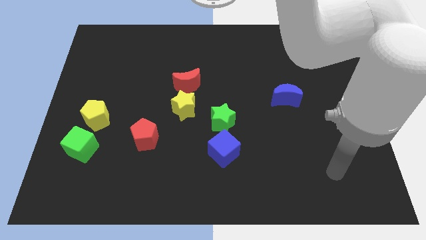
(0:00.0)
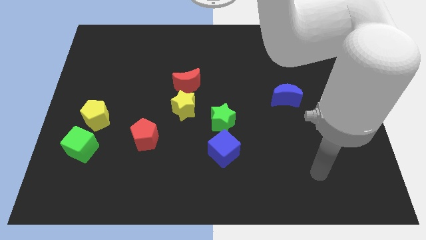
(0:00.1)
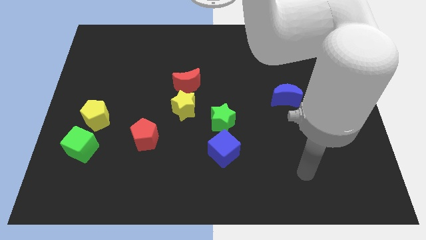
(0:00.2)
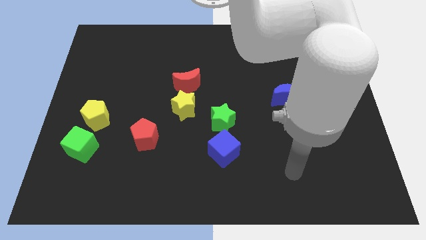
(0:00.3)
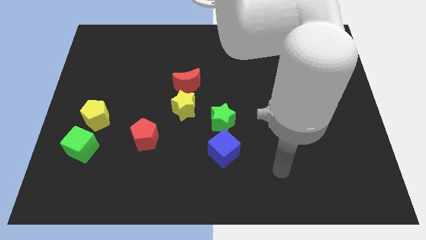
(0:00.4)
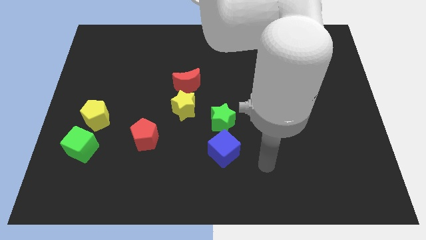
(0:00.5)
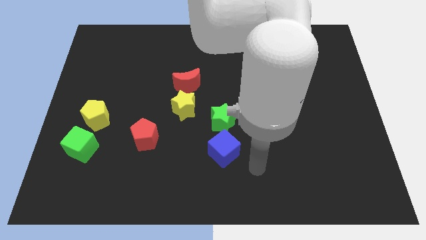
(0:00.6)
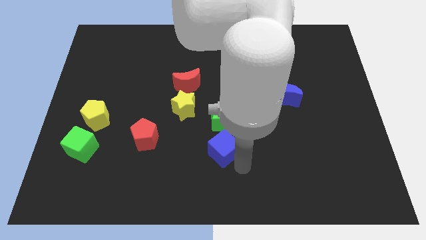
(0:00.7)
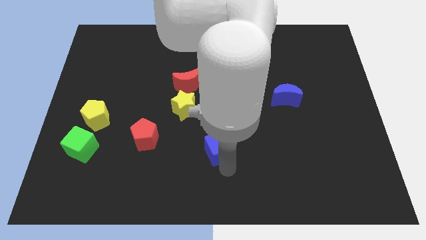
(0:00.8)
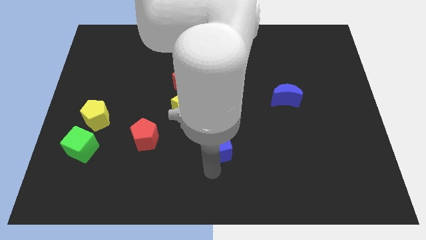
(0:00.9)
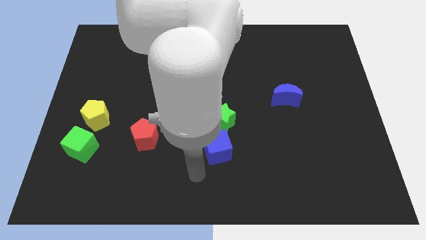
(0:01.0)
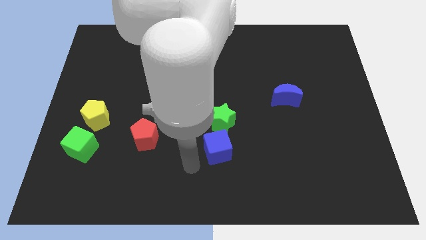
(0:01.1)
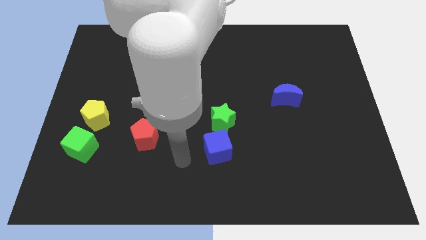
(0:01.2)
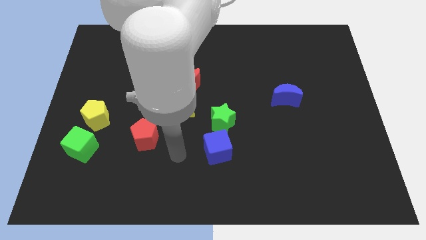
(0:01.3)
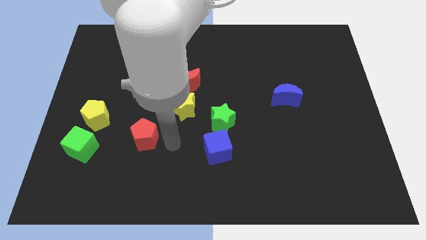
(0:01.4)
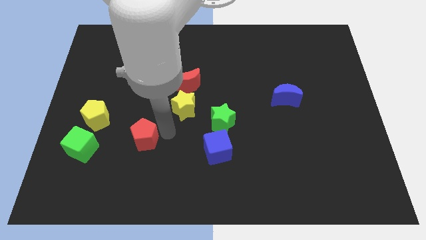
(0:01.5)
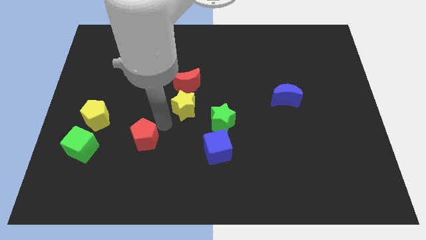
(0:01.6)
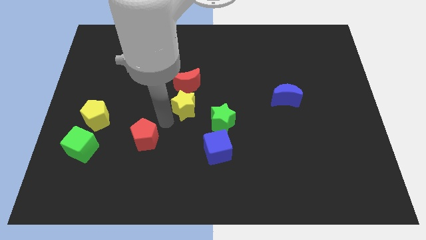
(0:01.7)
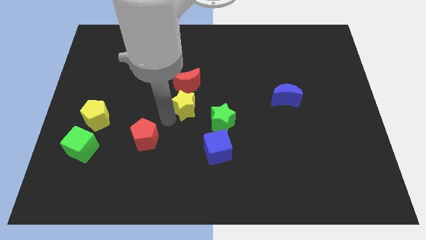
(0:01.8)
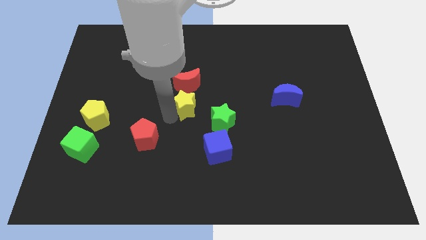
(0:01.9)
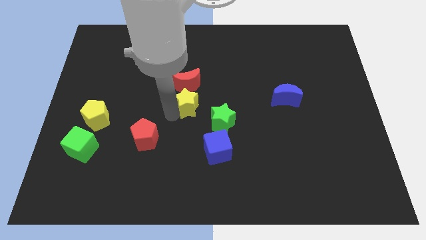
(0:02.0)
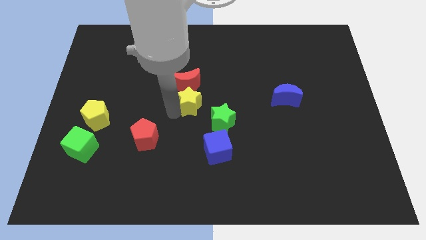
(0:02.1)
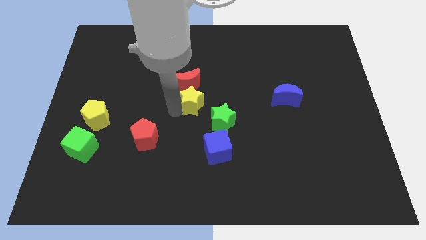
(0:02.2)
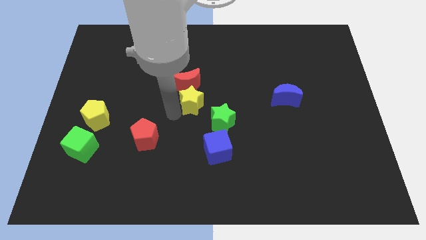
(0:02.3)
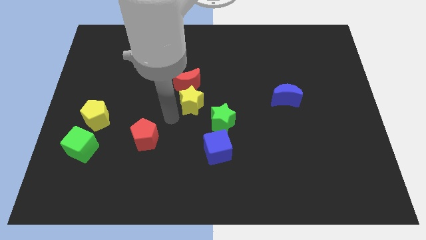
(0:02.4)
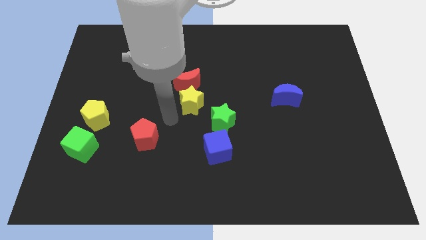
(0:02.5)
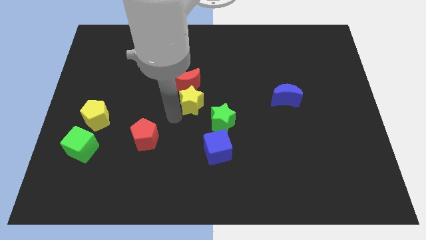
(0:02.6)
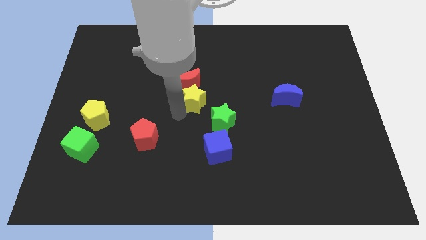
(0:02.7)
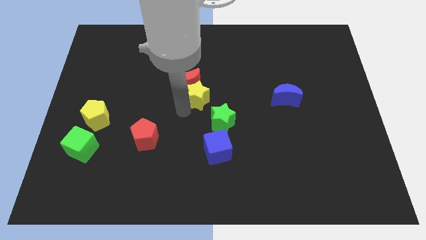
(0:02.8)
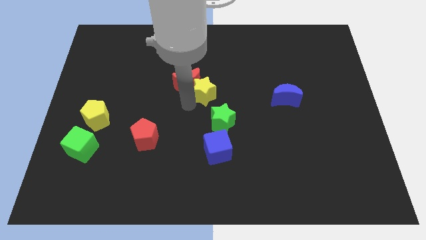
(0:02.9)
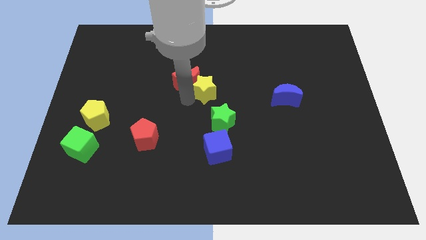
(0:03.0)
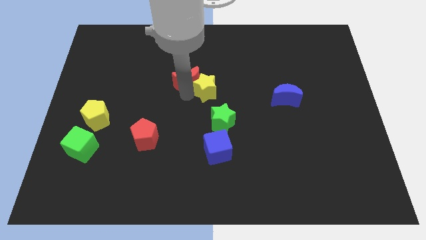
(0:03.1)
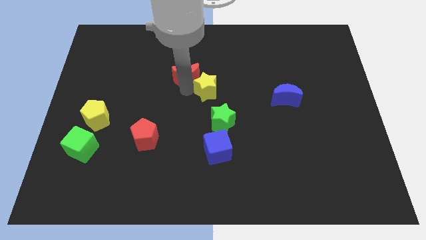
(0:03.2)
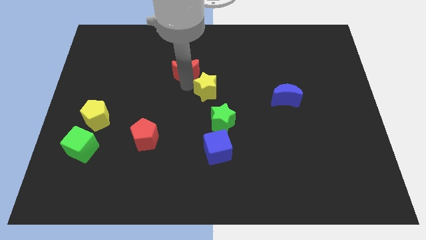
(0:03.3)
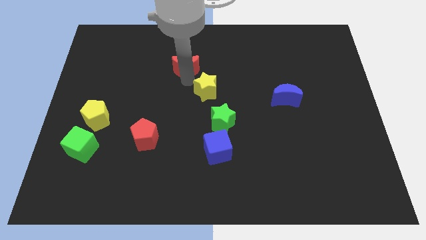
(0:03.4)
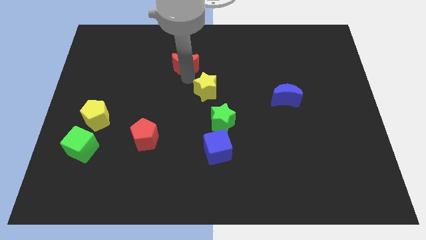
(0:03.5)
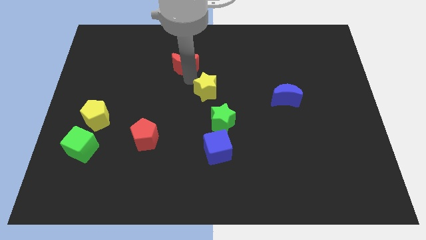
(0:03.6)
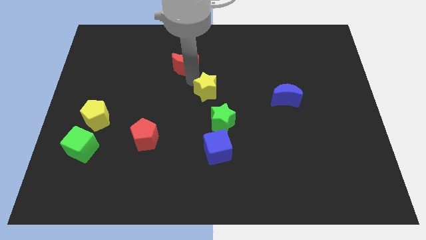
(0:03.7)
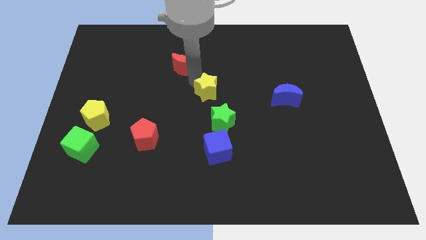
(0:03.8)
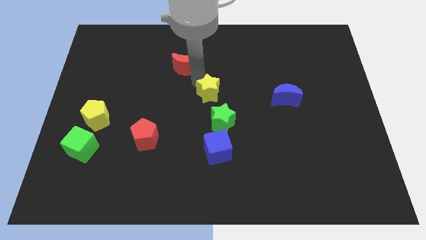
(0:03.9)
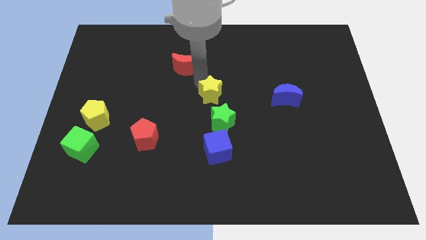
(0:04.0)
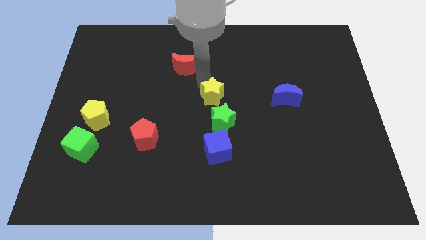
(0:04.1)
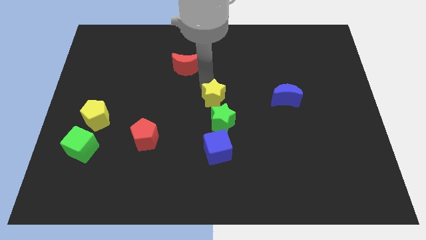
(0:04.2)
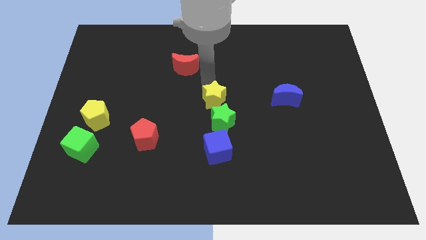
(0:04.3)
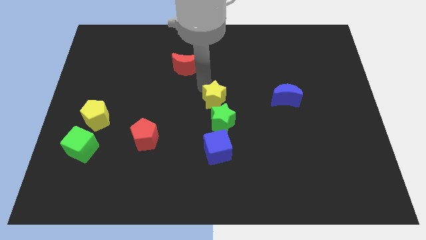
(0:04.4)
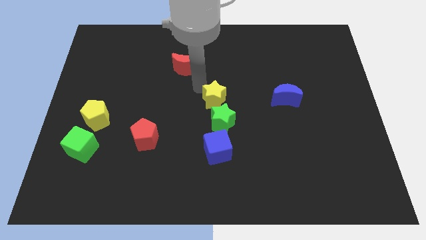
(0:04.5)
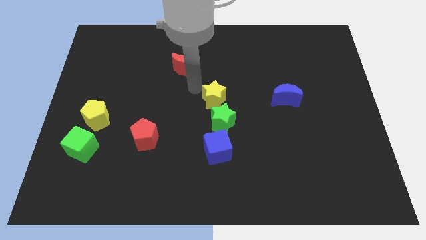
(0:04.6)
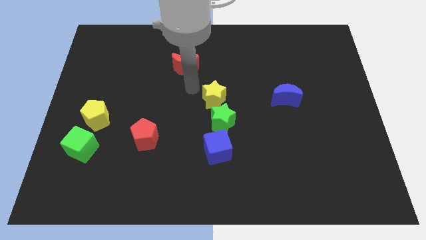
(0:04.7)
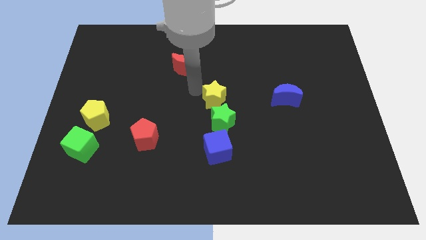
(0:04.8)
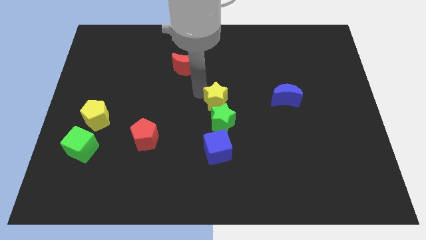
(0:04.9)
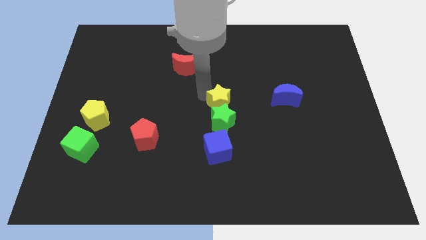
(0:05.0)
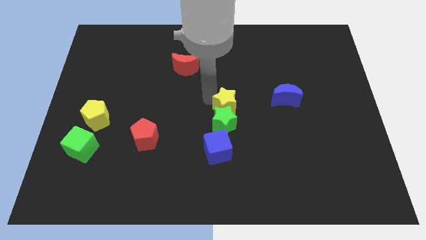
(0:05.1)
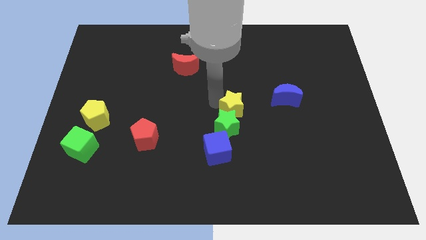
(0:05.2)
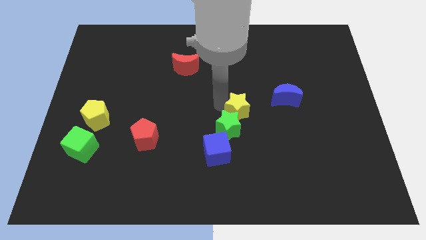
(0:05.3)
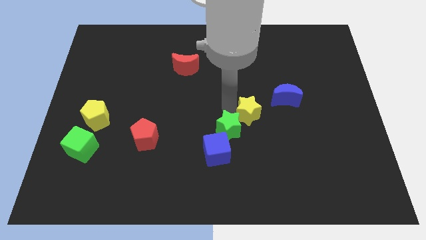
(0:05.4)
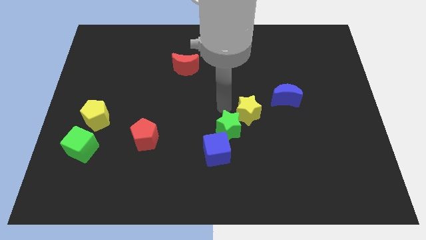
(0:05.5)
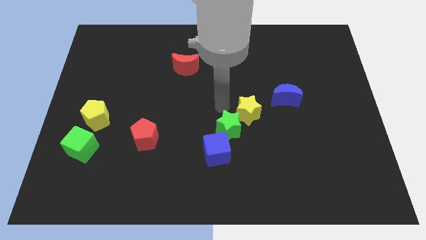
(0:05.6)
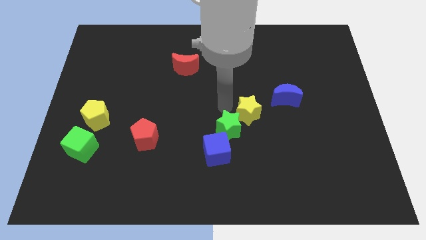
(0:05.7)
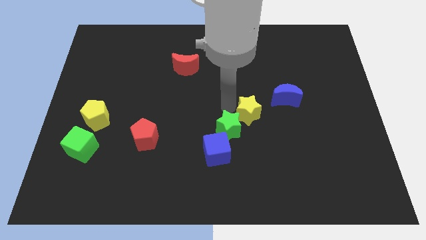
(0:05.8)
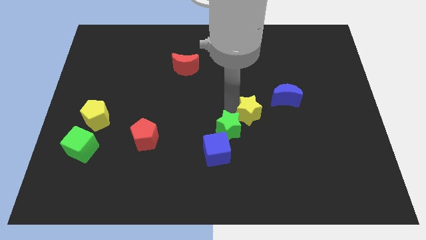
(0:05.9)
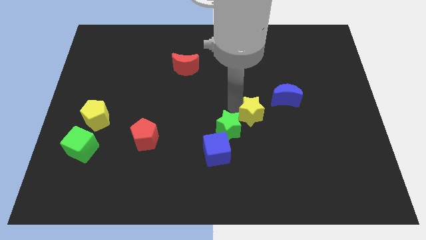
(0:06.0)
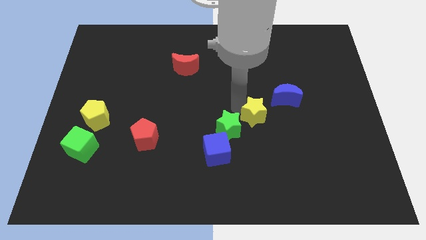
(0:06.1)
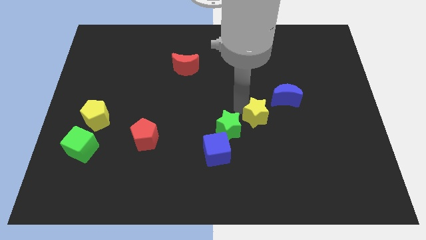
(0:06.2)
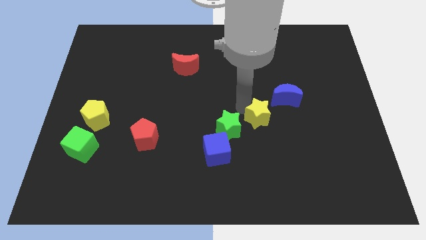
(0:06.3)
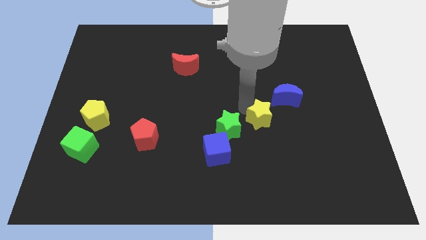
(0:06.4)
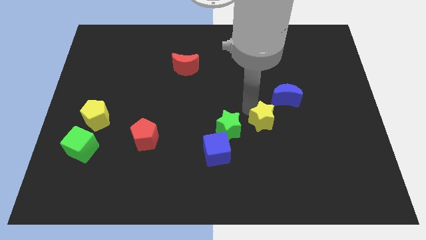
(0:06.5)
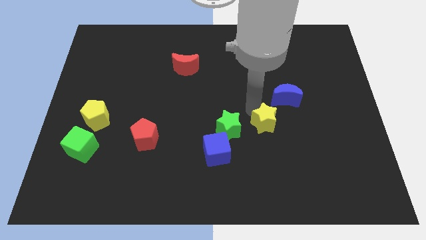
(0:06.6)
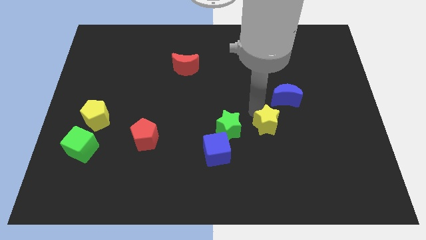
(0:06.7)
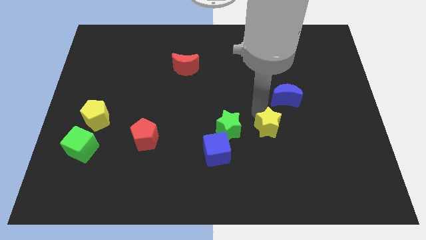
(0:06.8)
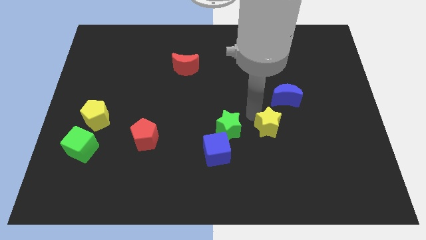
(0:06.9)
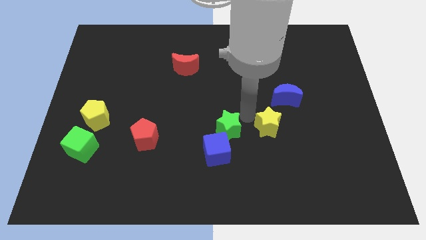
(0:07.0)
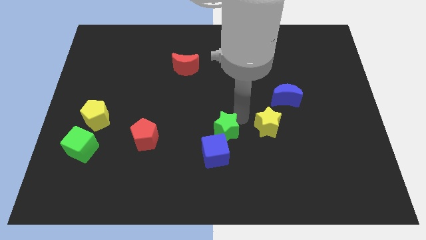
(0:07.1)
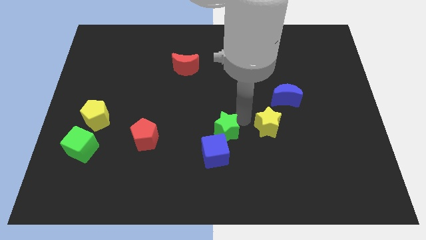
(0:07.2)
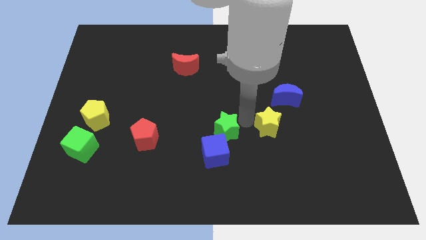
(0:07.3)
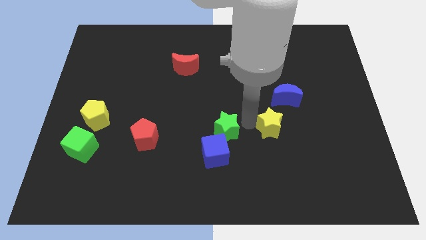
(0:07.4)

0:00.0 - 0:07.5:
push the yellow star to the bottom of the blue moon
